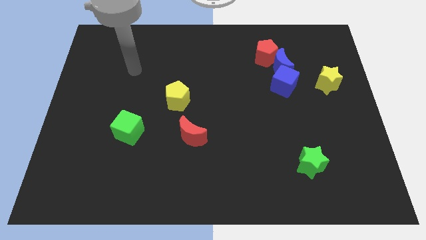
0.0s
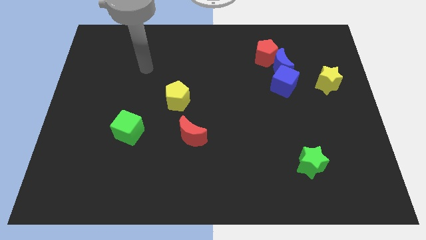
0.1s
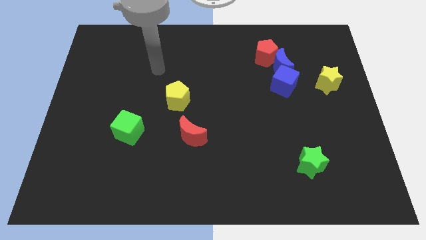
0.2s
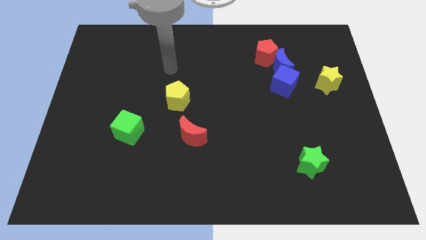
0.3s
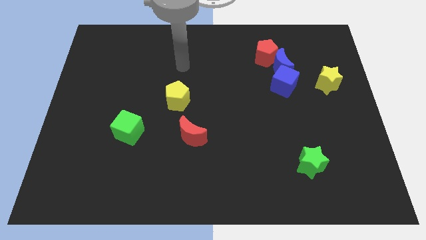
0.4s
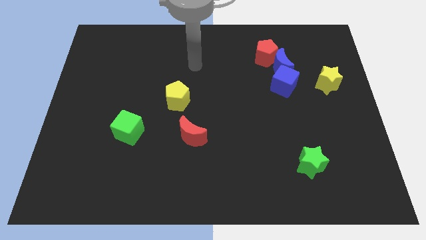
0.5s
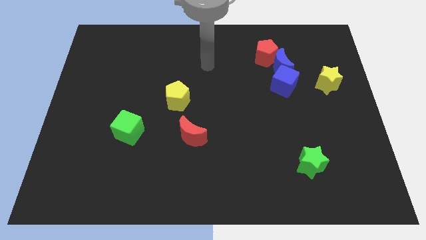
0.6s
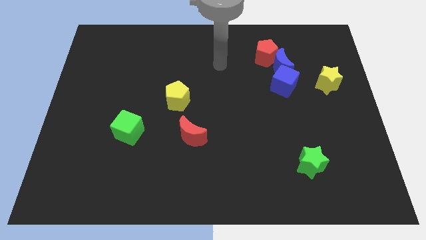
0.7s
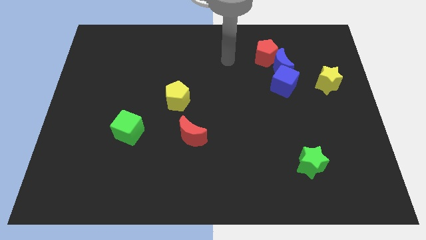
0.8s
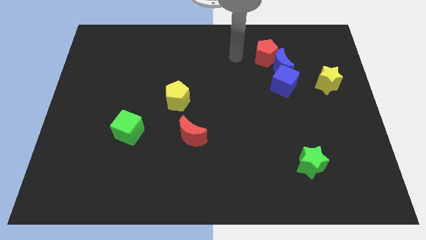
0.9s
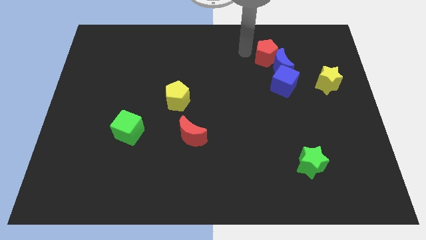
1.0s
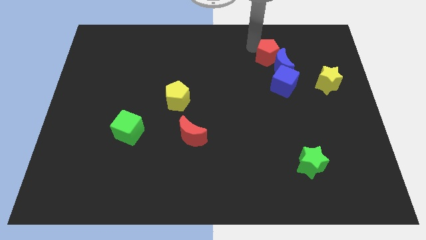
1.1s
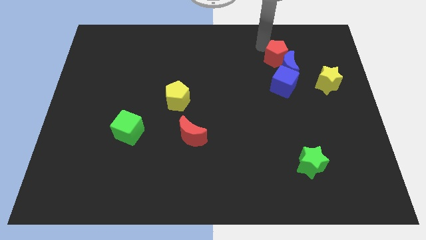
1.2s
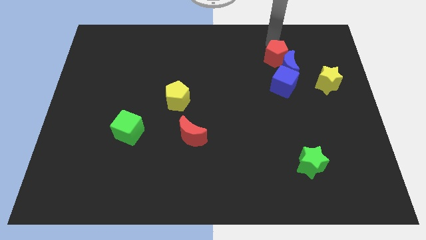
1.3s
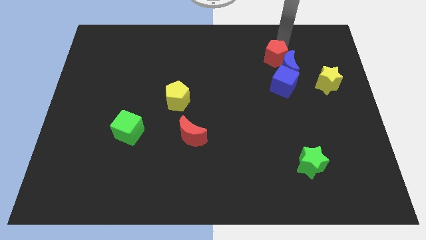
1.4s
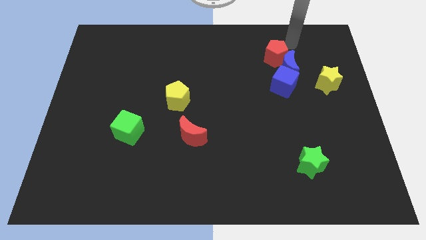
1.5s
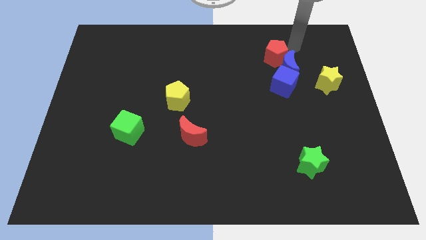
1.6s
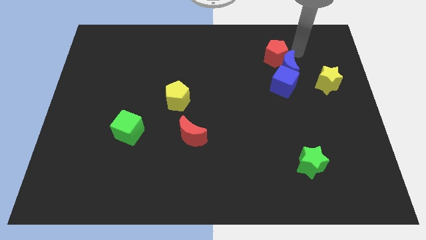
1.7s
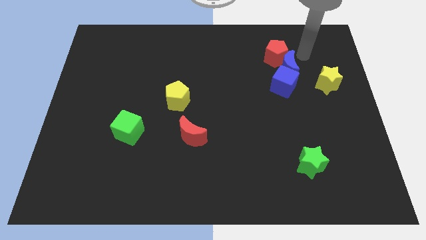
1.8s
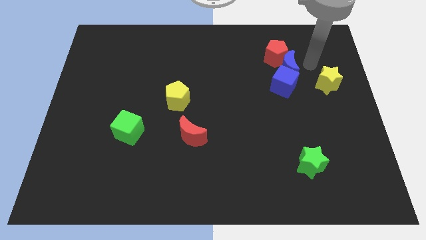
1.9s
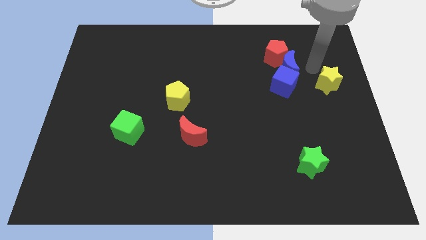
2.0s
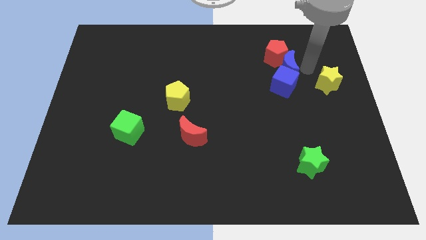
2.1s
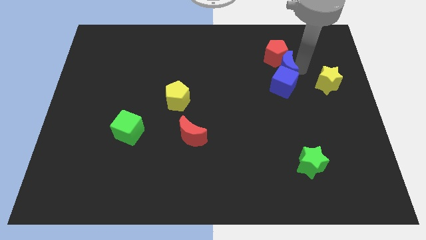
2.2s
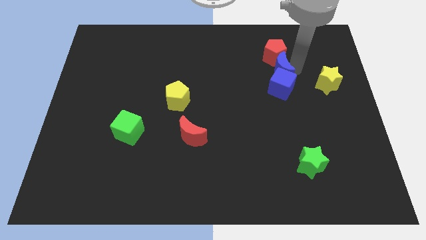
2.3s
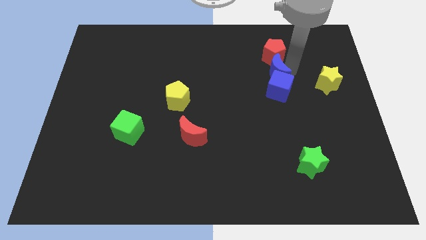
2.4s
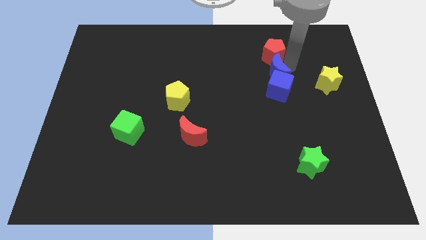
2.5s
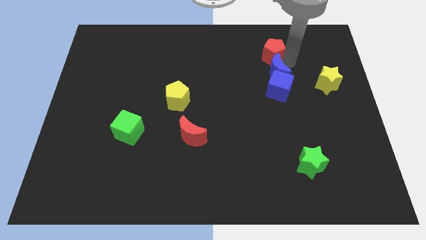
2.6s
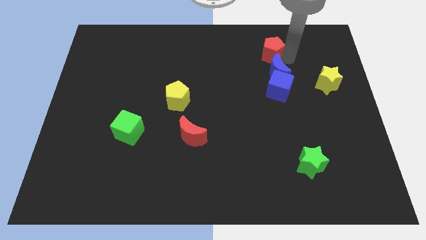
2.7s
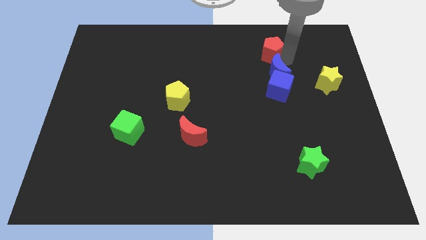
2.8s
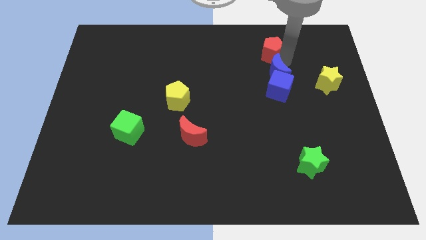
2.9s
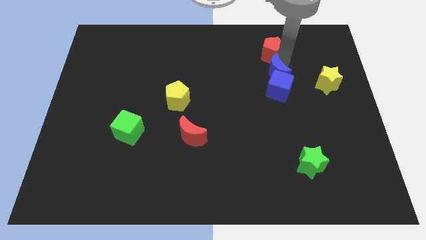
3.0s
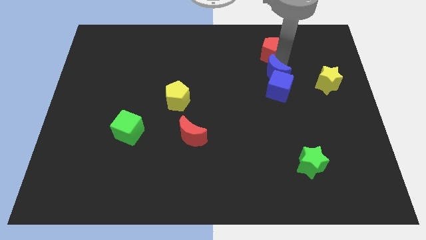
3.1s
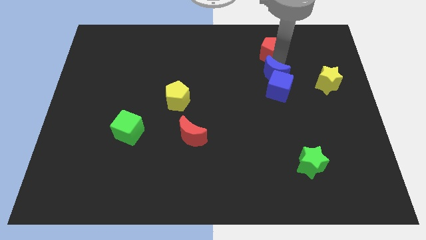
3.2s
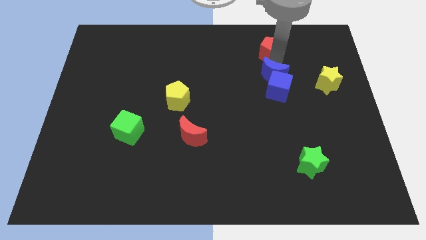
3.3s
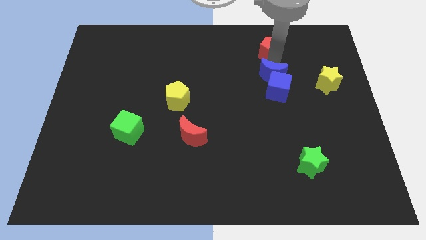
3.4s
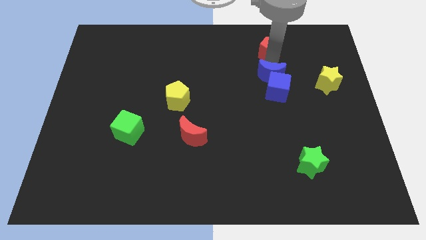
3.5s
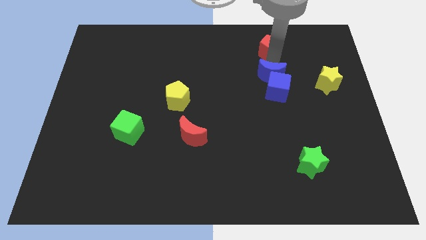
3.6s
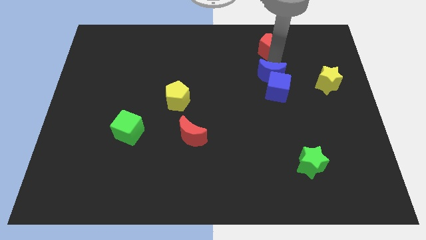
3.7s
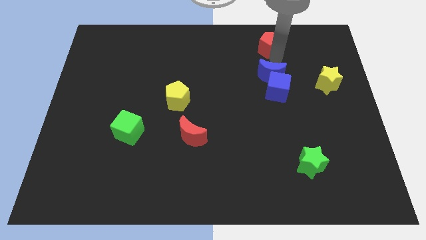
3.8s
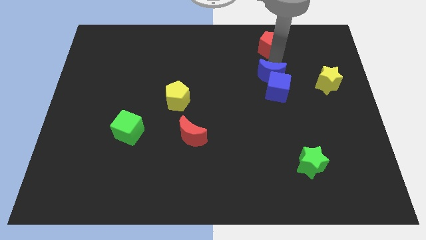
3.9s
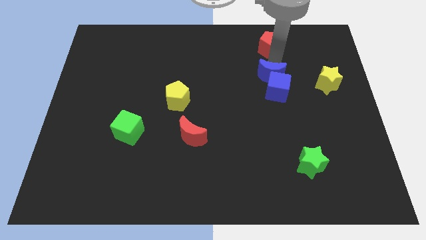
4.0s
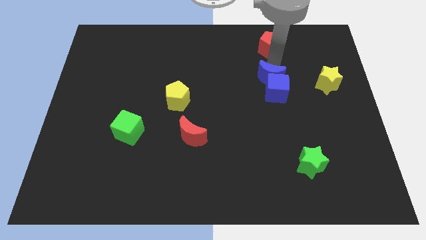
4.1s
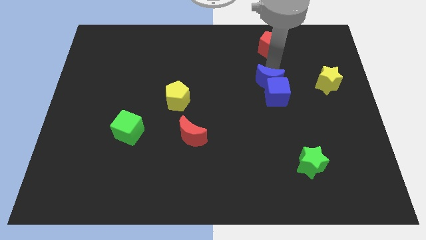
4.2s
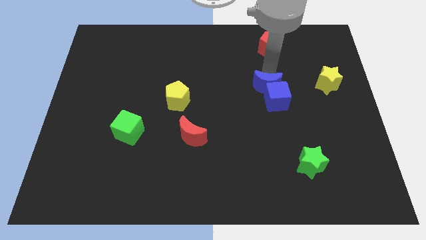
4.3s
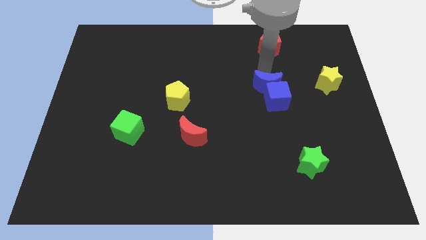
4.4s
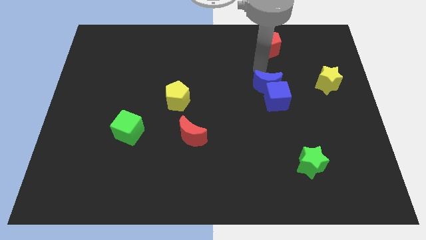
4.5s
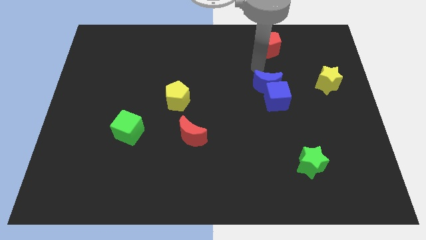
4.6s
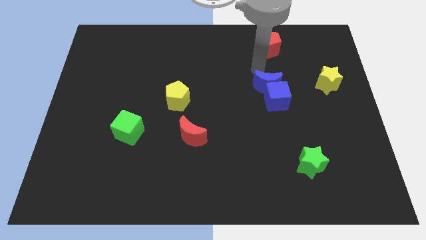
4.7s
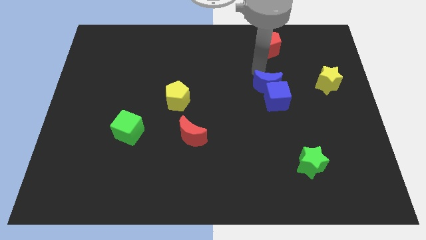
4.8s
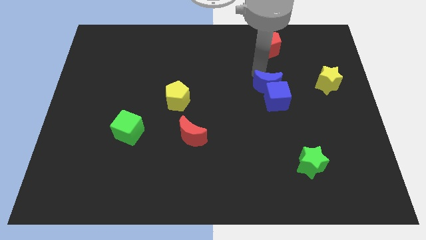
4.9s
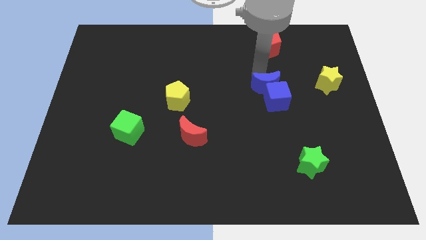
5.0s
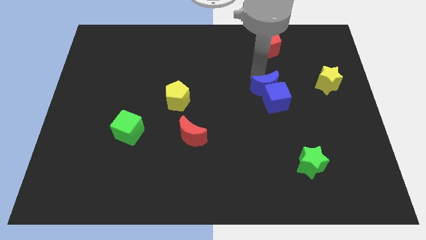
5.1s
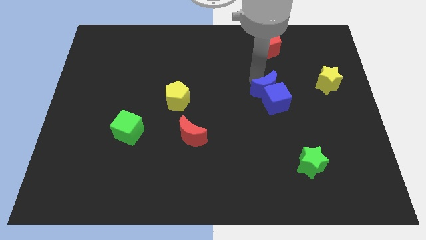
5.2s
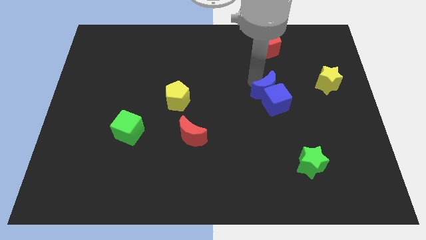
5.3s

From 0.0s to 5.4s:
move the blue moon a bit downwards

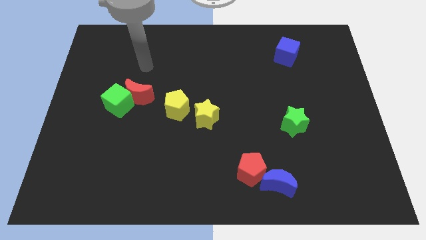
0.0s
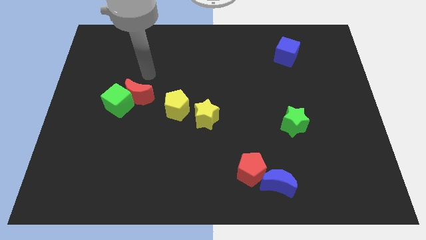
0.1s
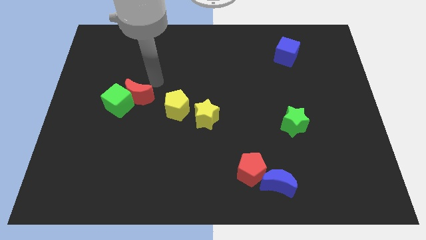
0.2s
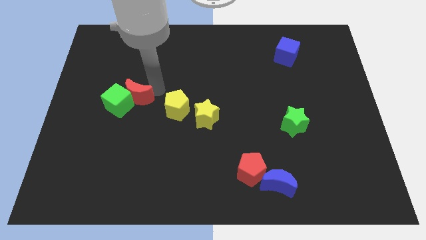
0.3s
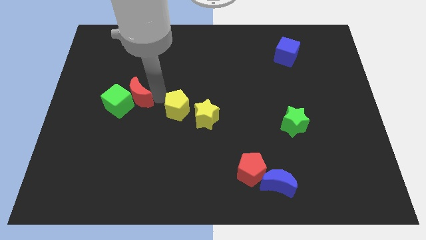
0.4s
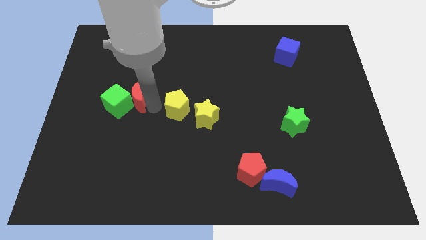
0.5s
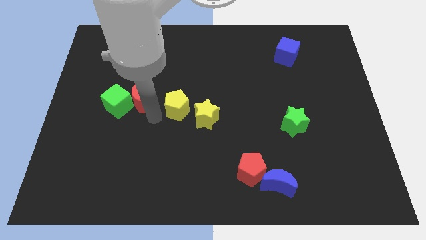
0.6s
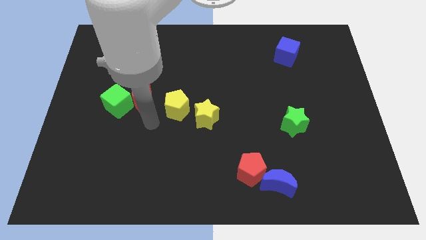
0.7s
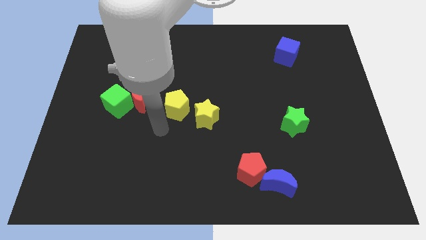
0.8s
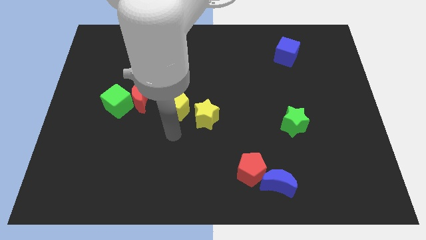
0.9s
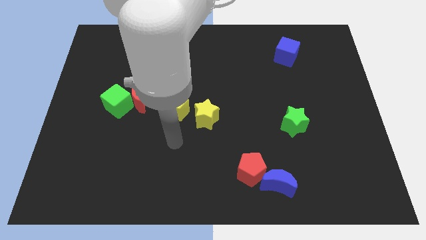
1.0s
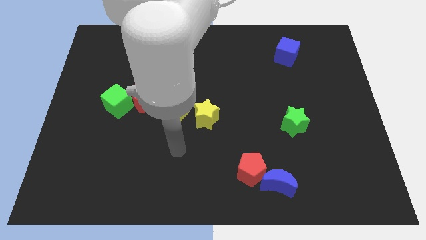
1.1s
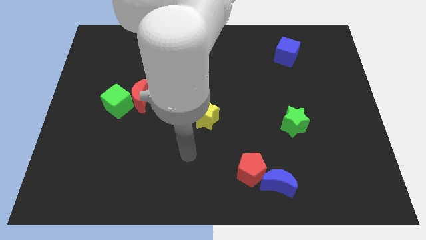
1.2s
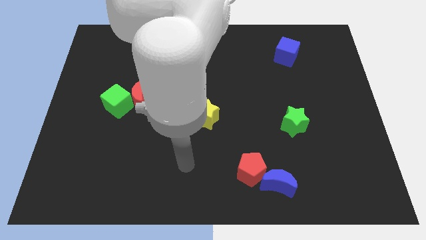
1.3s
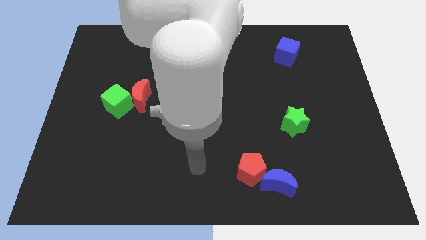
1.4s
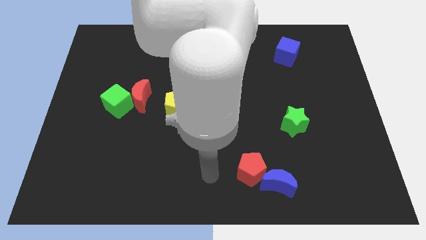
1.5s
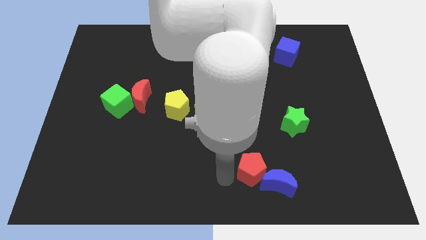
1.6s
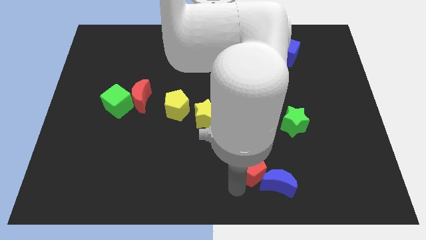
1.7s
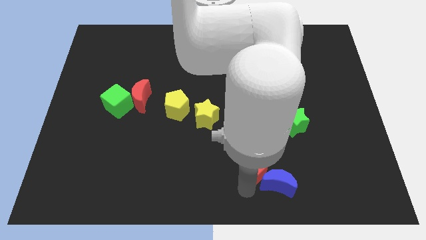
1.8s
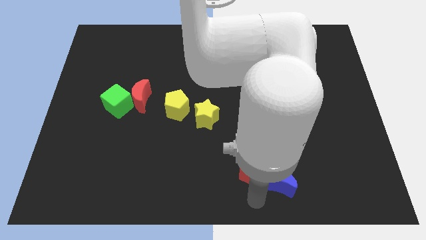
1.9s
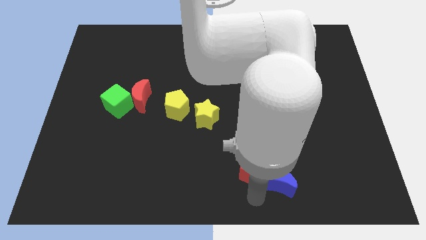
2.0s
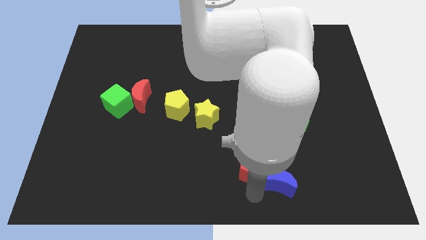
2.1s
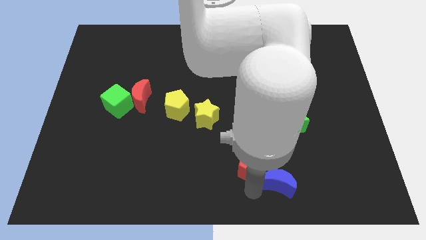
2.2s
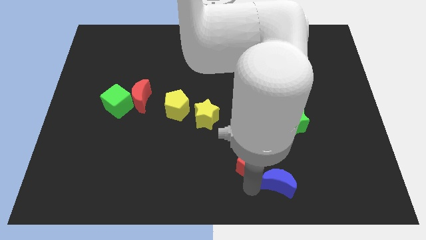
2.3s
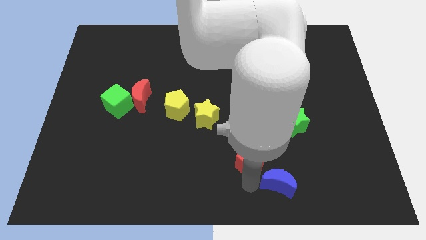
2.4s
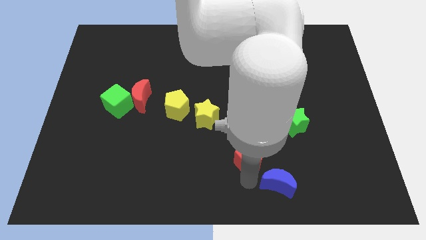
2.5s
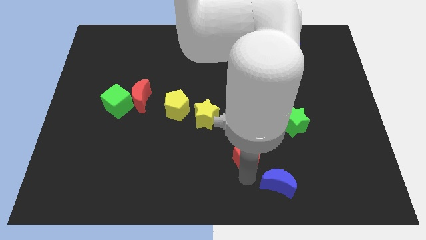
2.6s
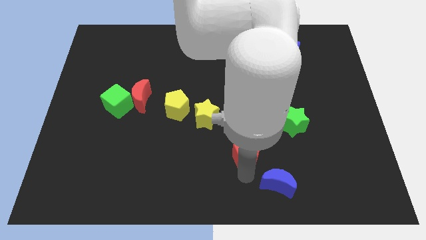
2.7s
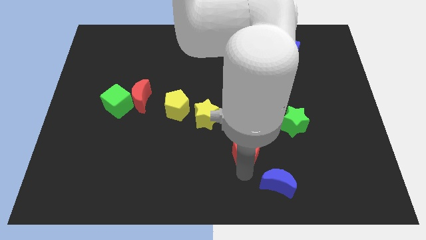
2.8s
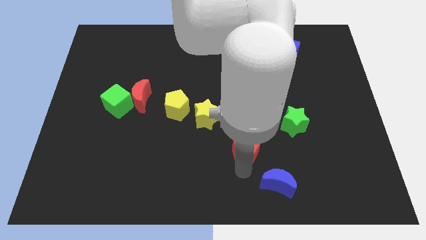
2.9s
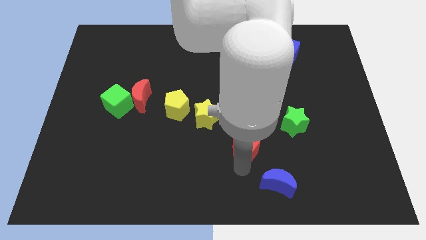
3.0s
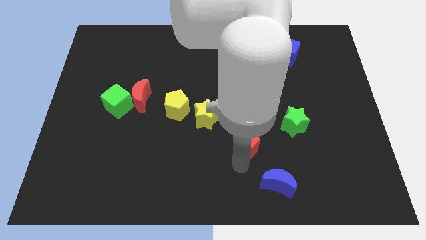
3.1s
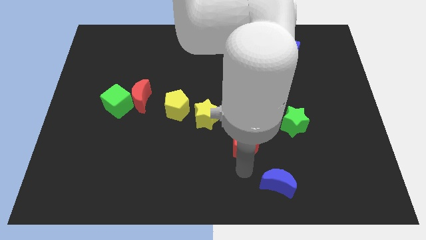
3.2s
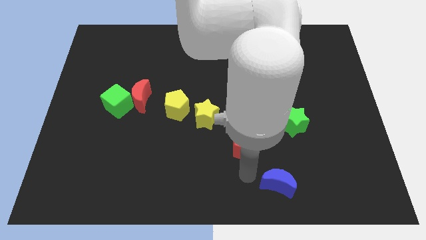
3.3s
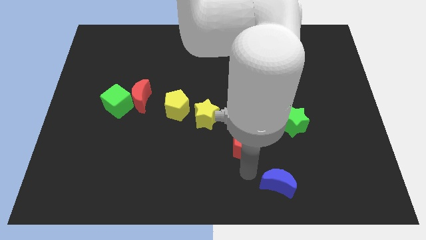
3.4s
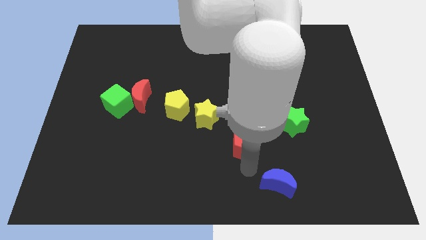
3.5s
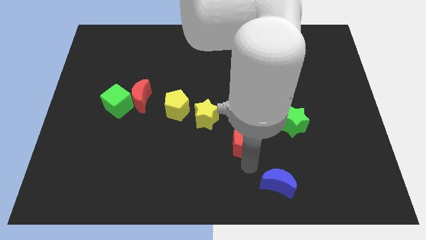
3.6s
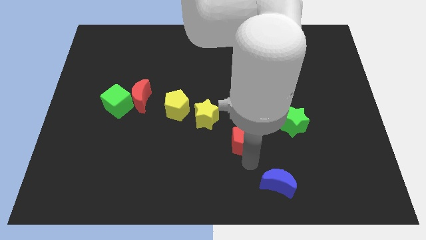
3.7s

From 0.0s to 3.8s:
push the red pentagon somewhat up
